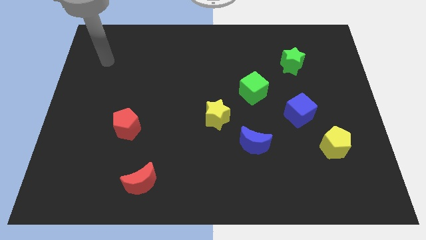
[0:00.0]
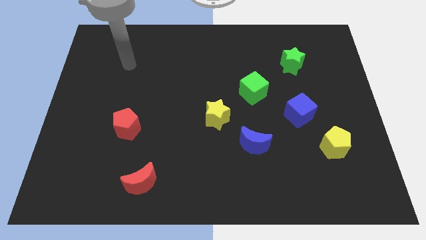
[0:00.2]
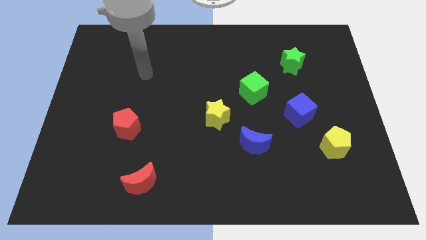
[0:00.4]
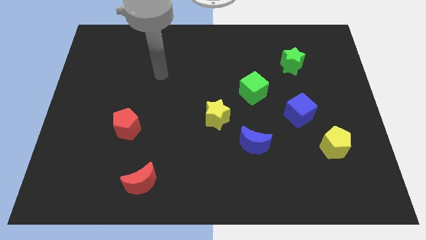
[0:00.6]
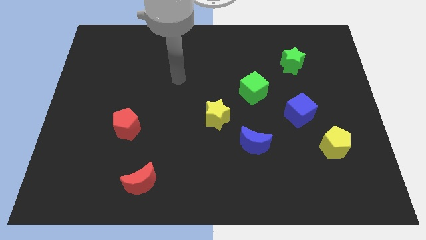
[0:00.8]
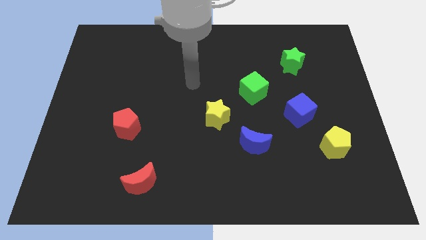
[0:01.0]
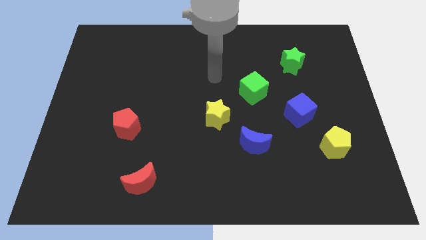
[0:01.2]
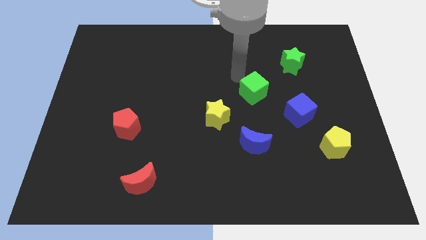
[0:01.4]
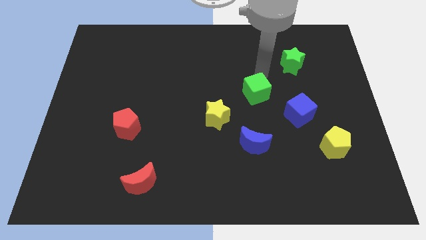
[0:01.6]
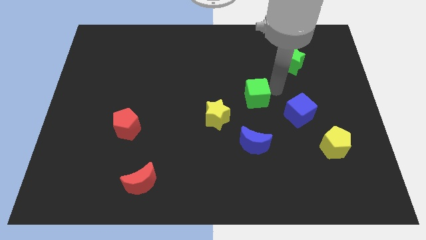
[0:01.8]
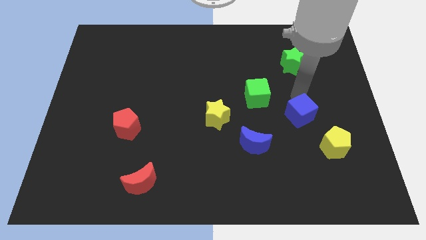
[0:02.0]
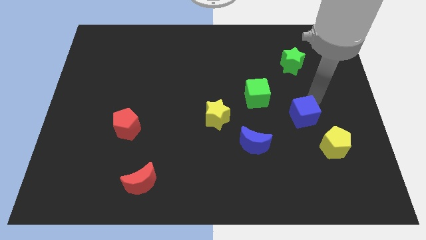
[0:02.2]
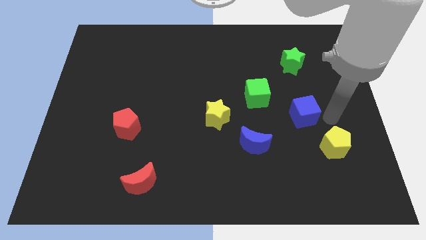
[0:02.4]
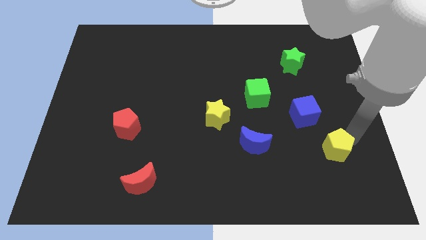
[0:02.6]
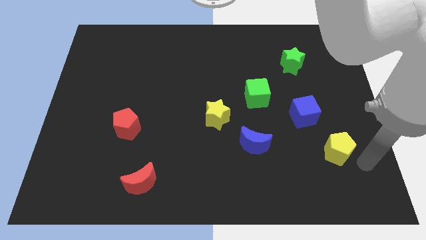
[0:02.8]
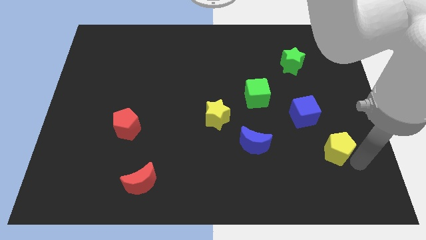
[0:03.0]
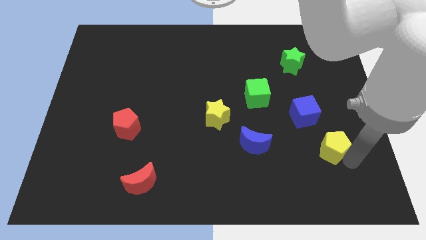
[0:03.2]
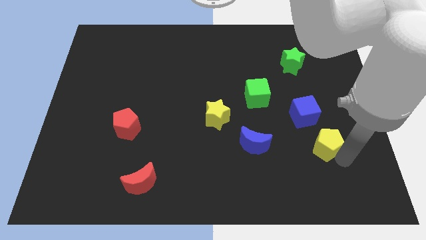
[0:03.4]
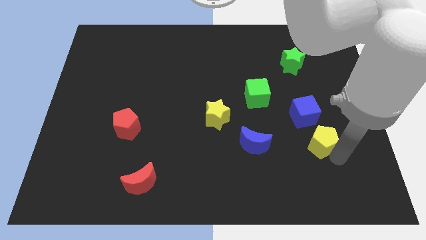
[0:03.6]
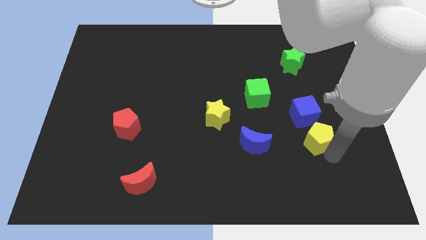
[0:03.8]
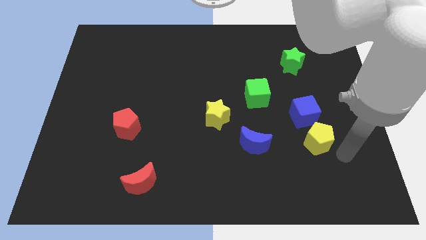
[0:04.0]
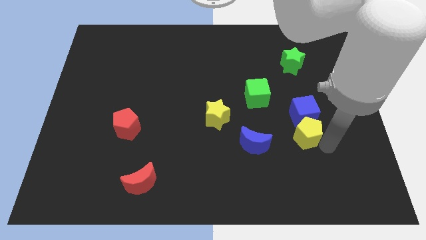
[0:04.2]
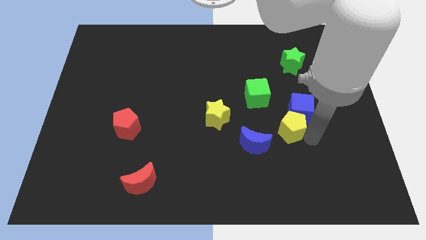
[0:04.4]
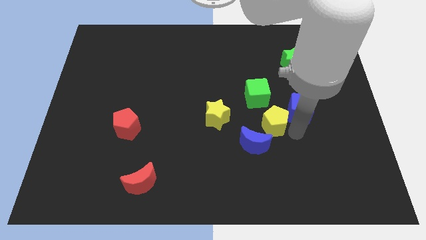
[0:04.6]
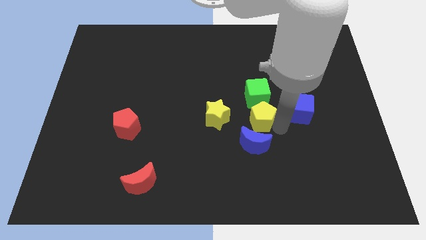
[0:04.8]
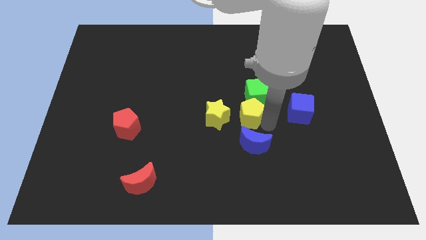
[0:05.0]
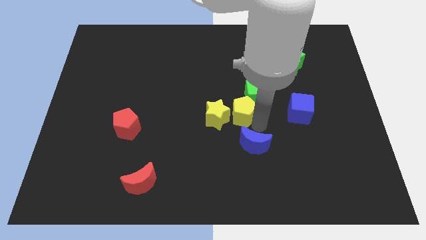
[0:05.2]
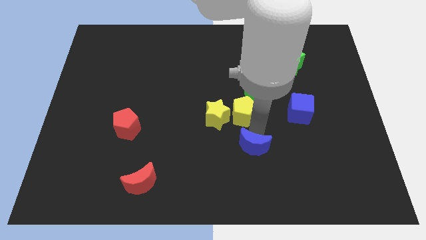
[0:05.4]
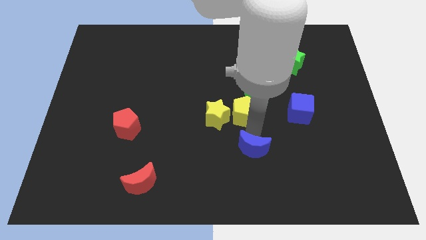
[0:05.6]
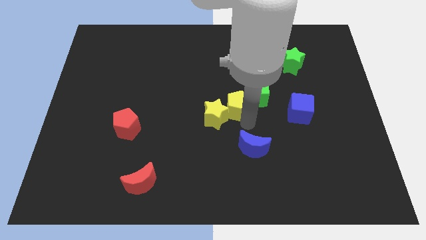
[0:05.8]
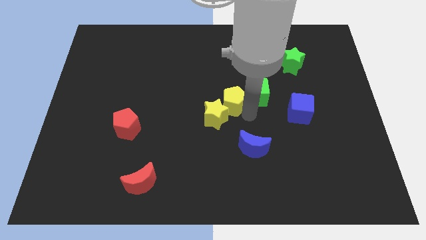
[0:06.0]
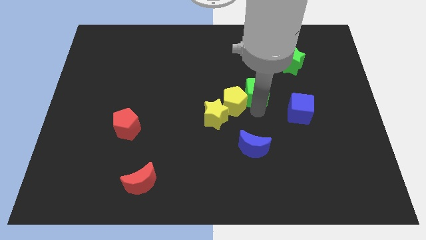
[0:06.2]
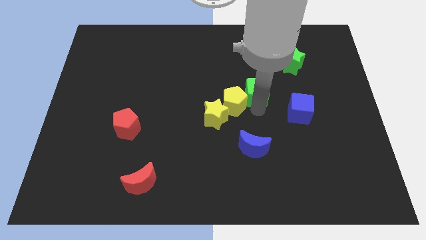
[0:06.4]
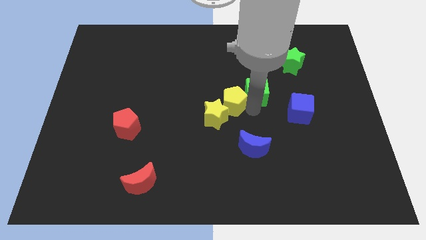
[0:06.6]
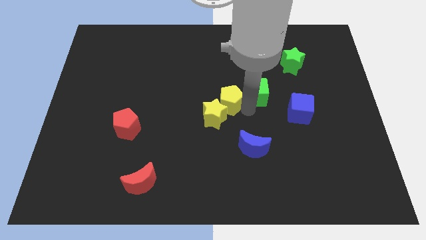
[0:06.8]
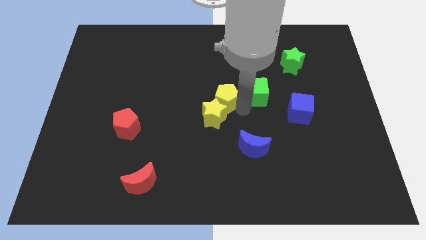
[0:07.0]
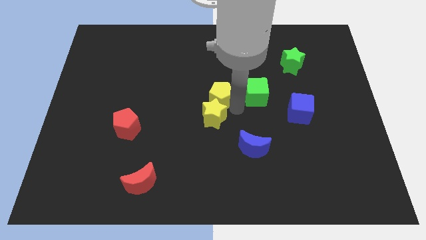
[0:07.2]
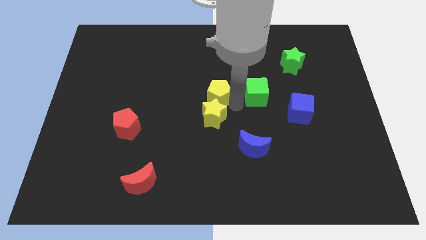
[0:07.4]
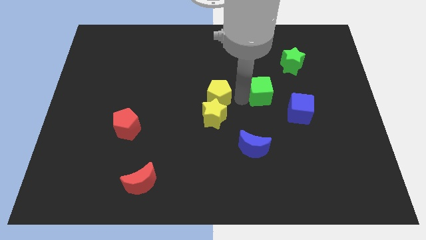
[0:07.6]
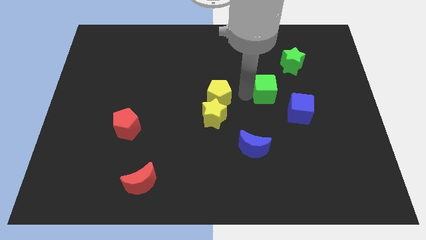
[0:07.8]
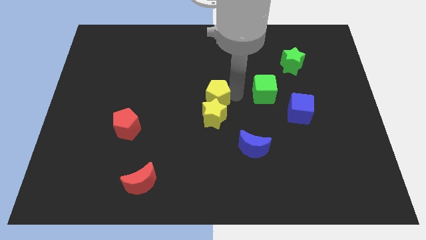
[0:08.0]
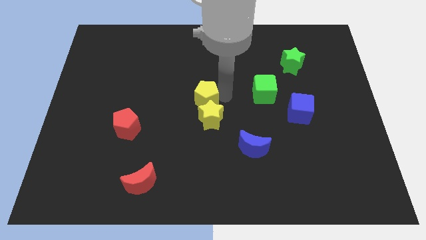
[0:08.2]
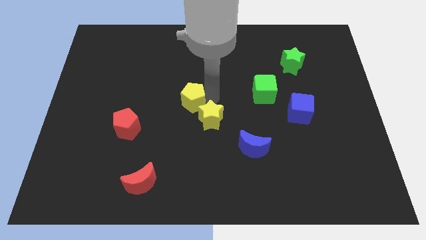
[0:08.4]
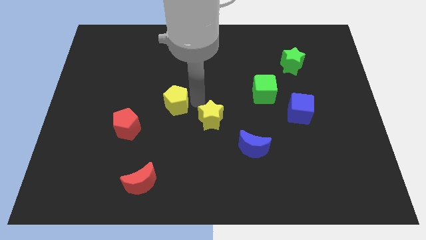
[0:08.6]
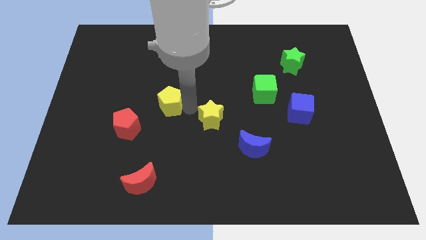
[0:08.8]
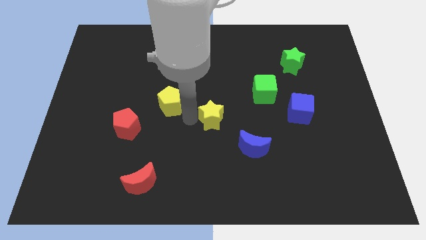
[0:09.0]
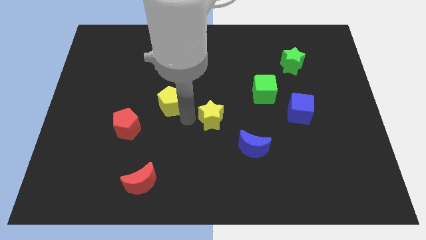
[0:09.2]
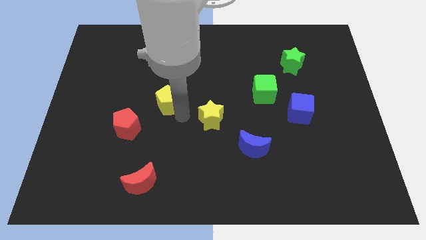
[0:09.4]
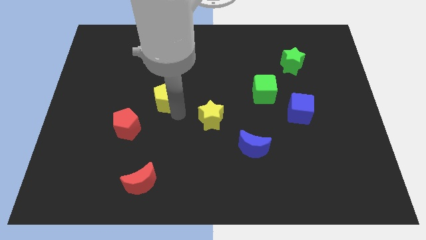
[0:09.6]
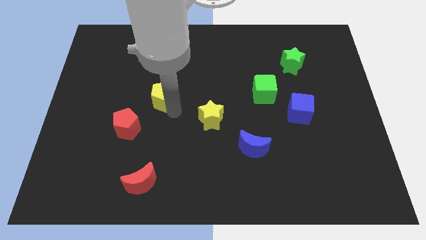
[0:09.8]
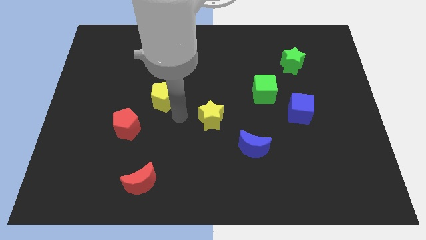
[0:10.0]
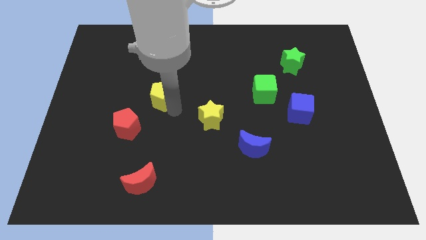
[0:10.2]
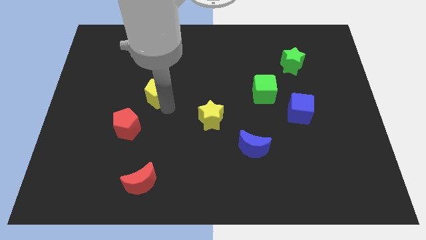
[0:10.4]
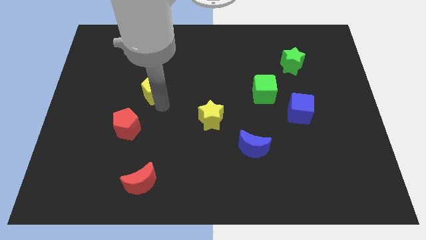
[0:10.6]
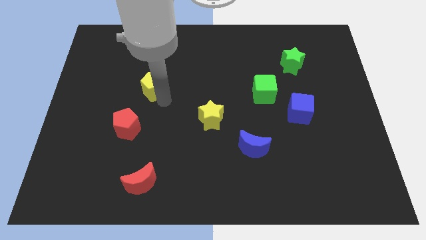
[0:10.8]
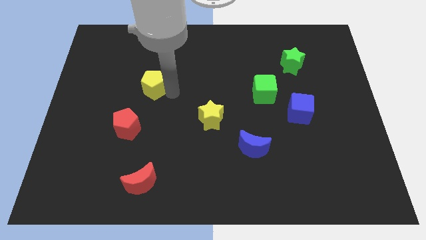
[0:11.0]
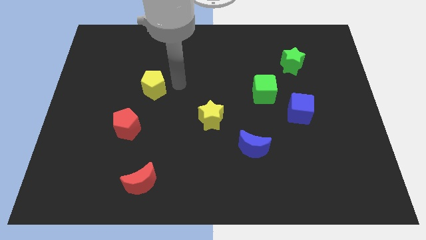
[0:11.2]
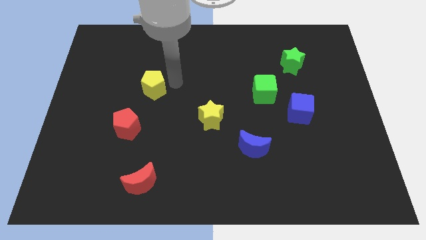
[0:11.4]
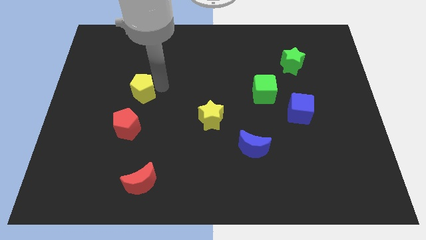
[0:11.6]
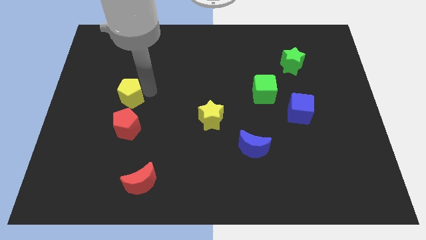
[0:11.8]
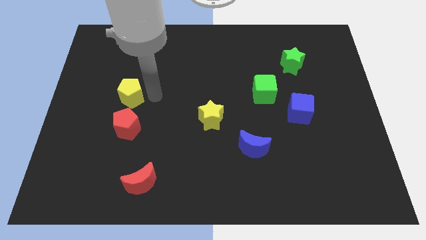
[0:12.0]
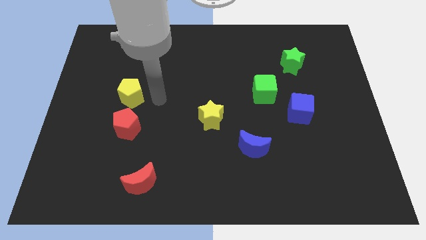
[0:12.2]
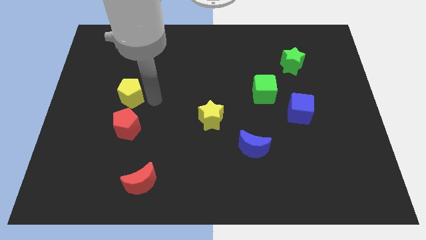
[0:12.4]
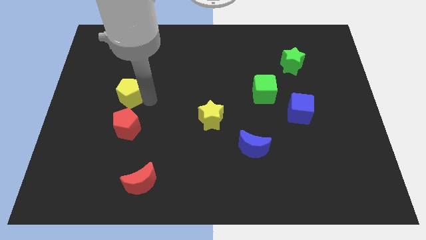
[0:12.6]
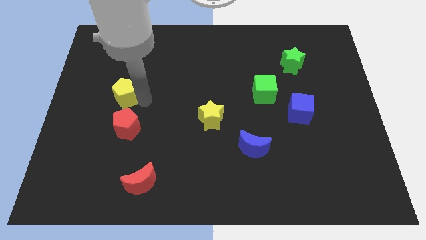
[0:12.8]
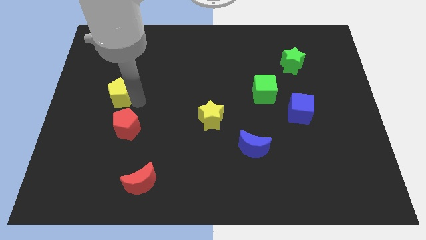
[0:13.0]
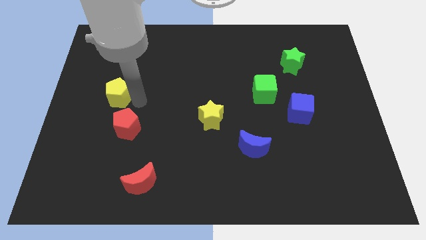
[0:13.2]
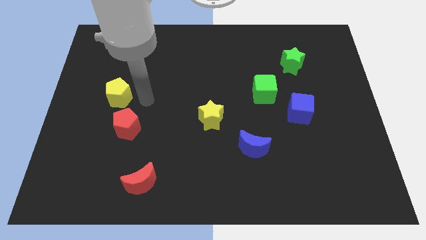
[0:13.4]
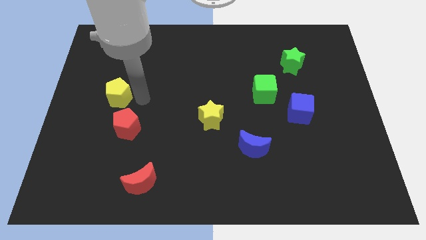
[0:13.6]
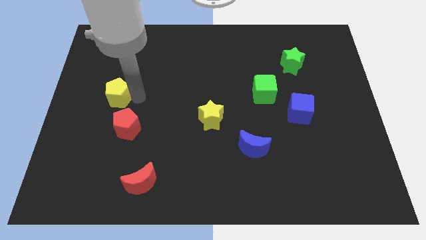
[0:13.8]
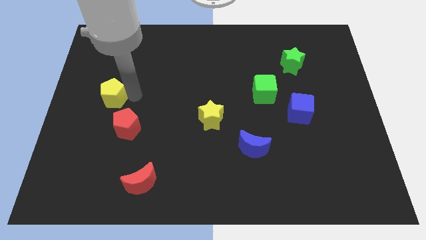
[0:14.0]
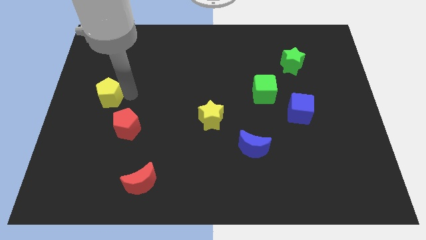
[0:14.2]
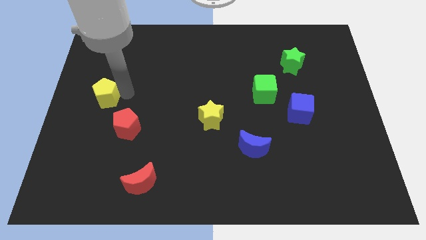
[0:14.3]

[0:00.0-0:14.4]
slide the yellow pentagon to the center left
